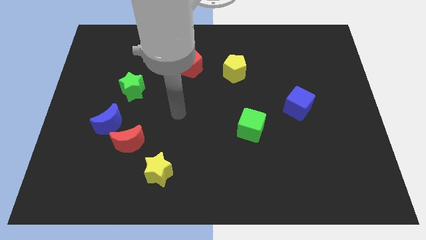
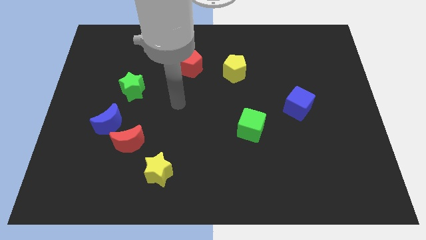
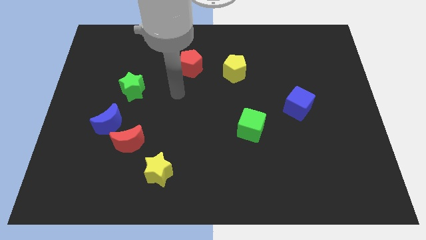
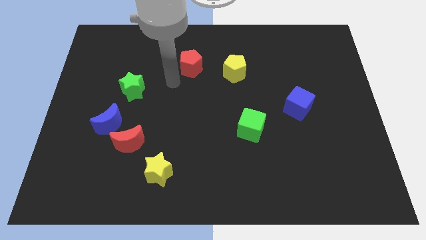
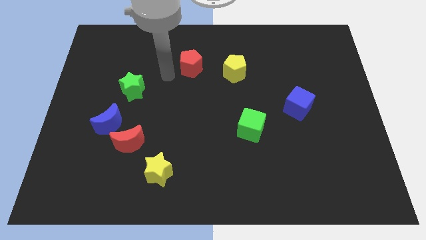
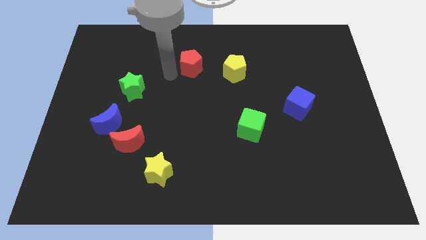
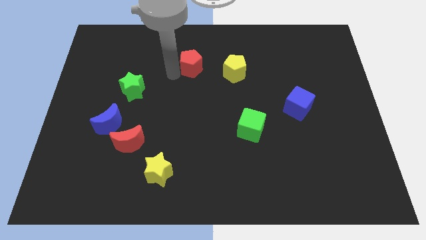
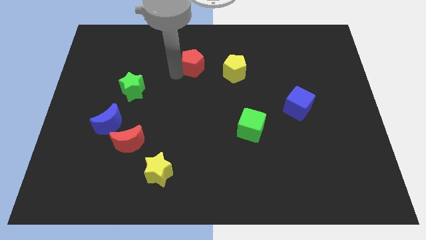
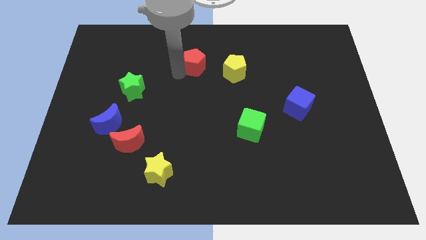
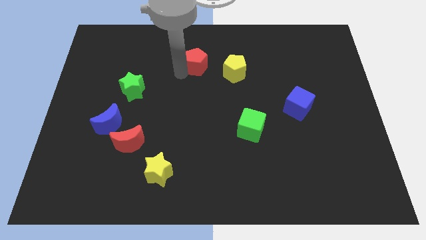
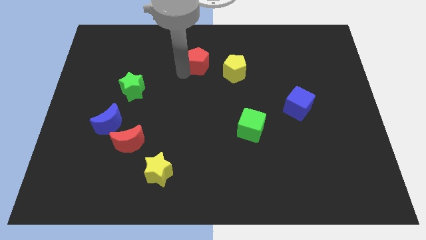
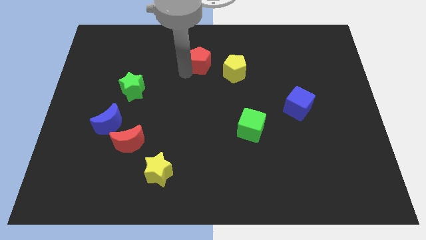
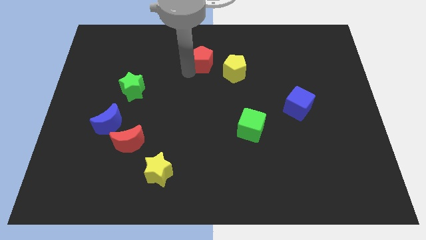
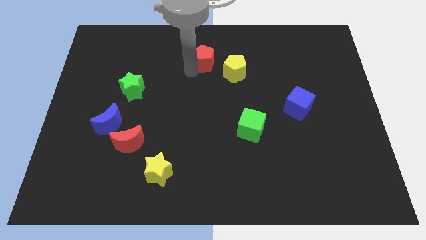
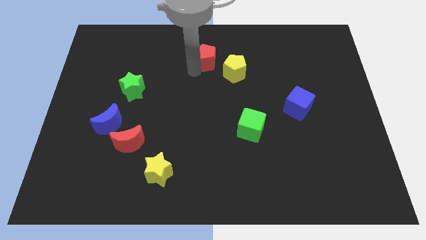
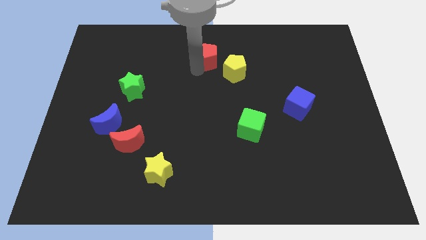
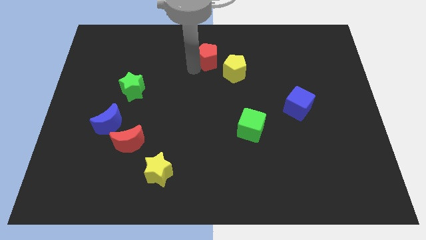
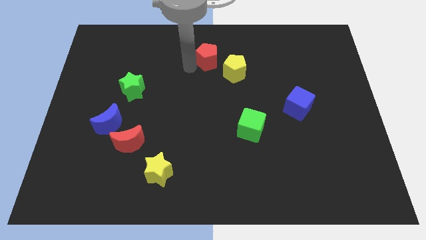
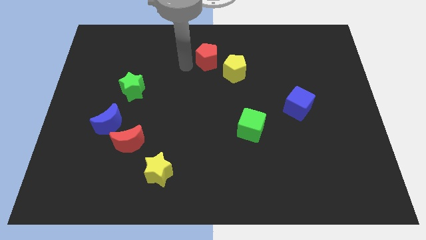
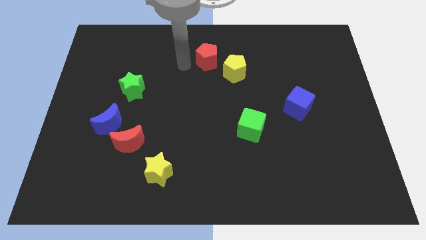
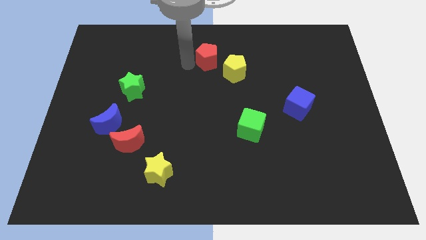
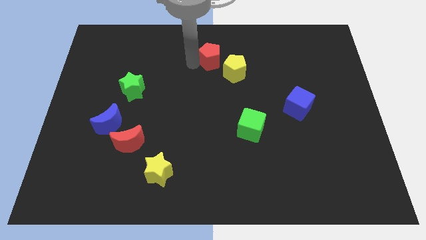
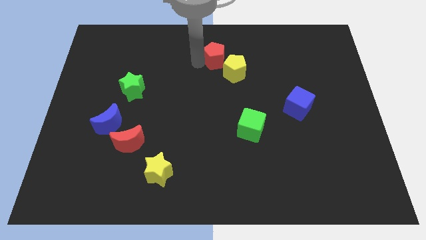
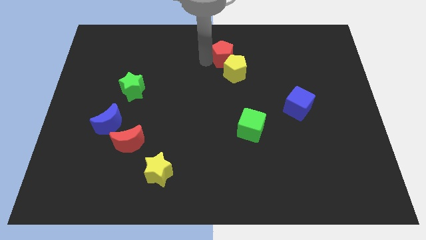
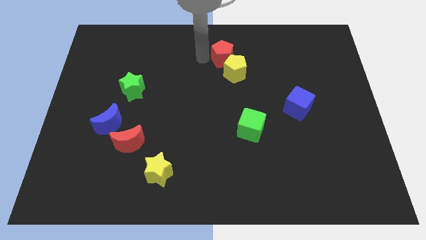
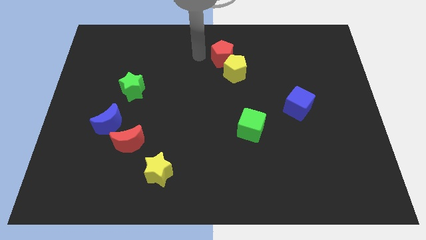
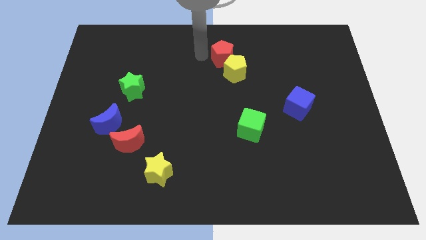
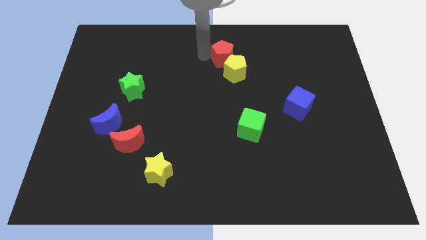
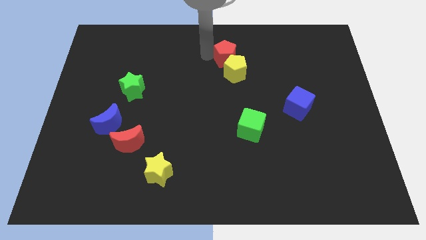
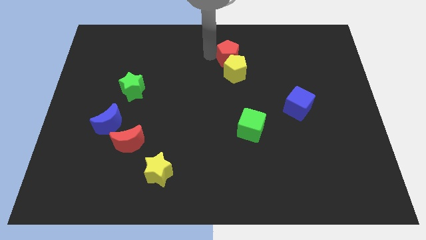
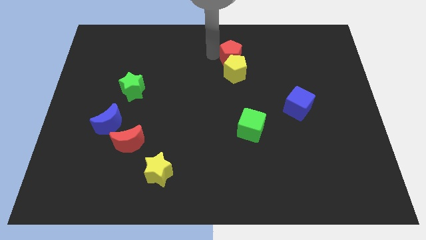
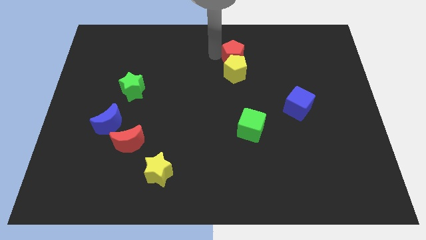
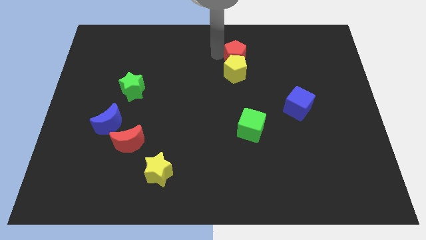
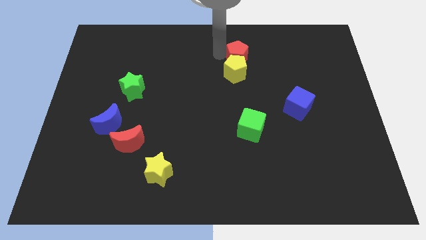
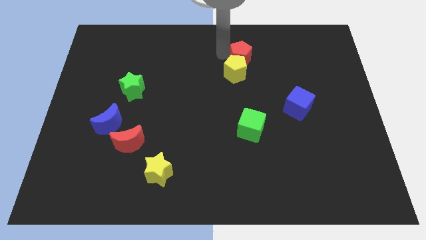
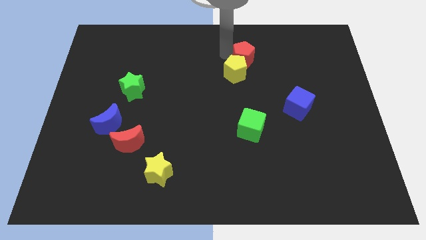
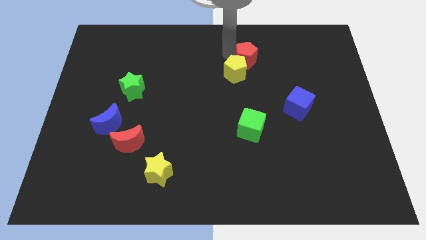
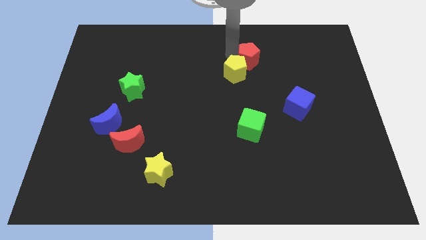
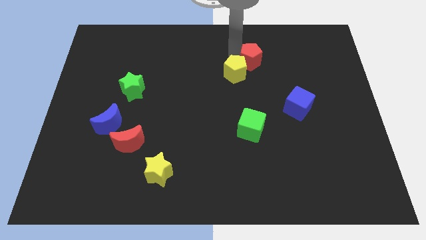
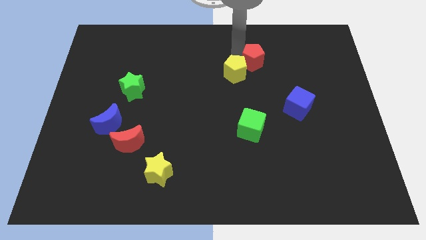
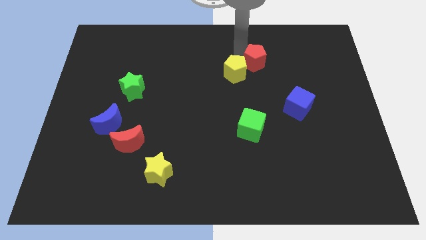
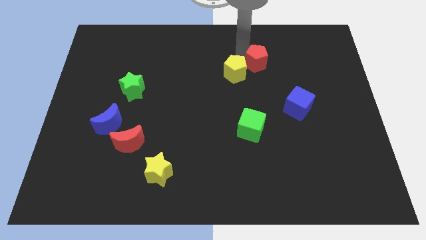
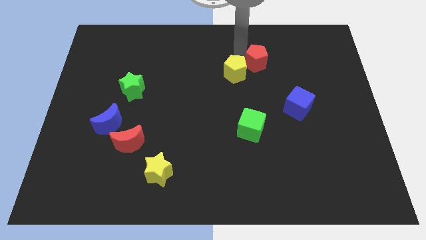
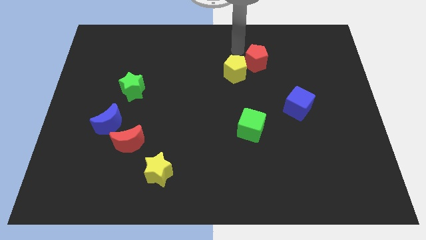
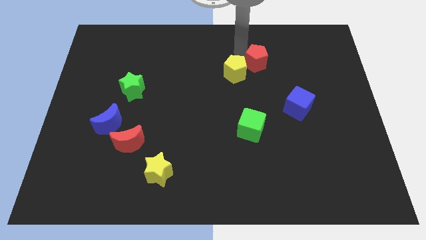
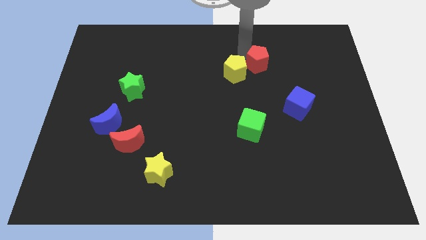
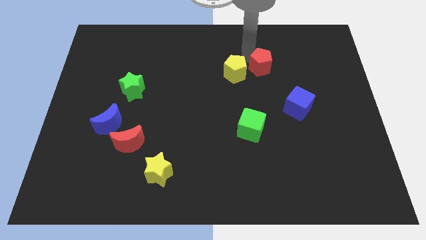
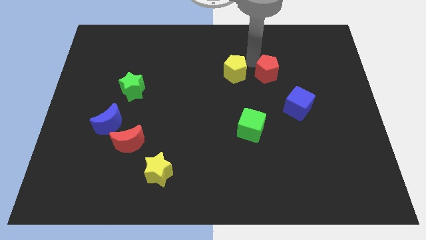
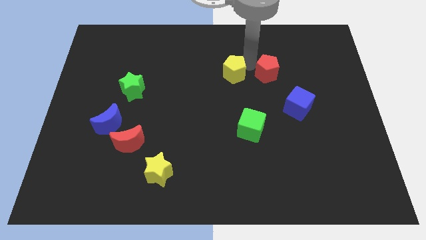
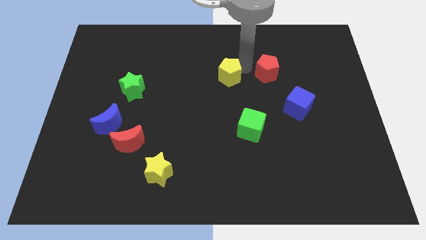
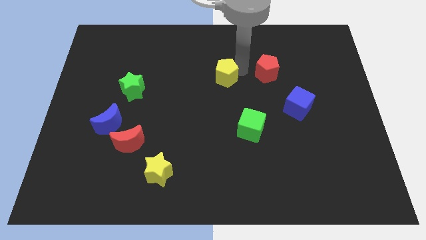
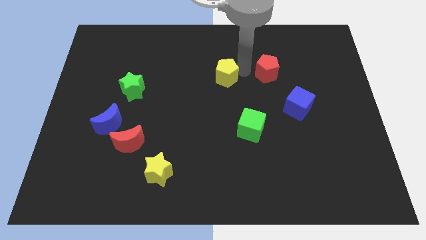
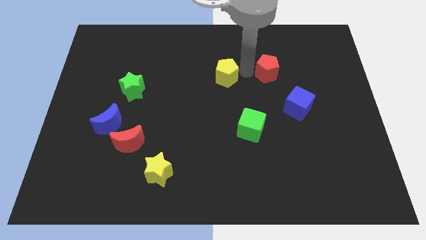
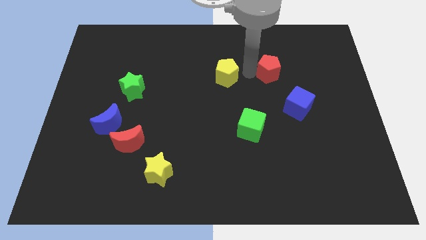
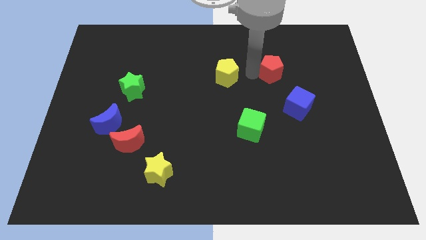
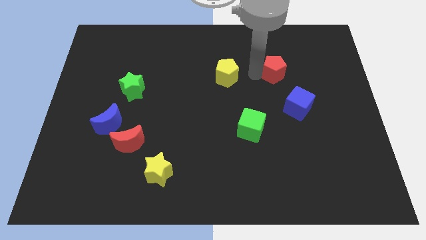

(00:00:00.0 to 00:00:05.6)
slide the red pentagon to the top of the blue cube

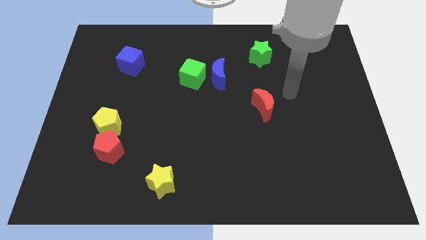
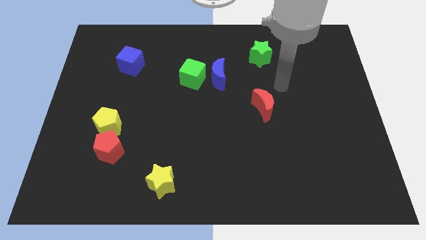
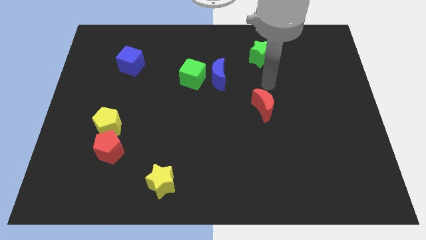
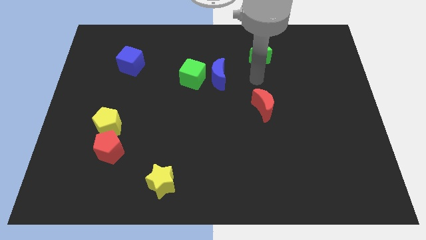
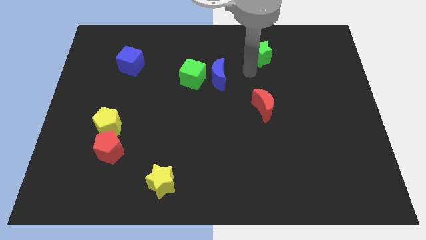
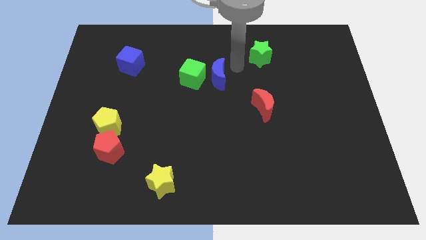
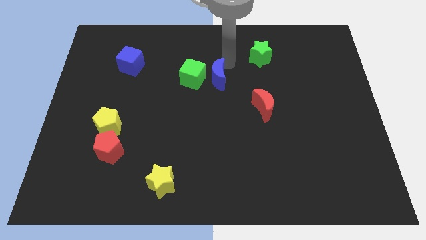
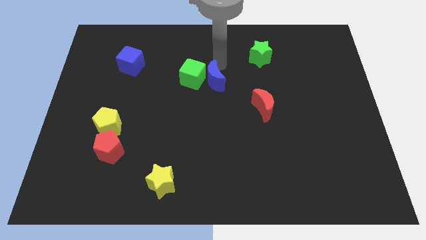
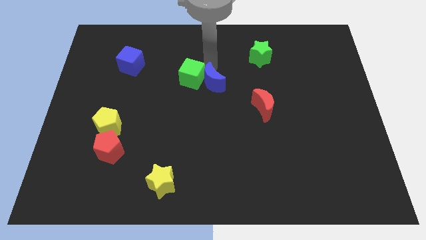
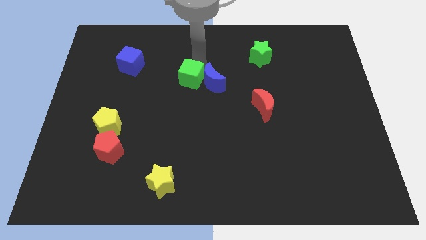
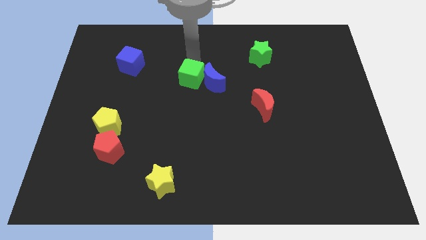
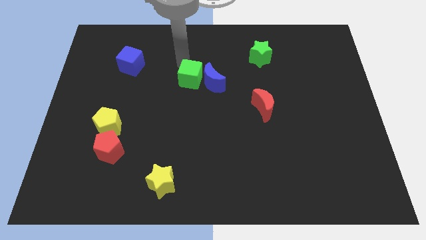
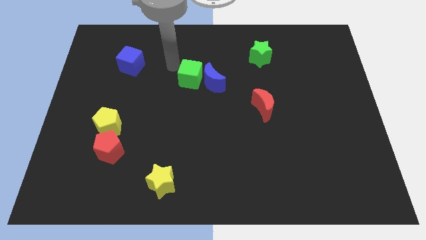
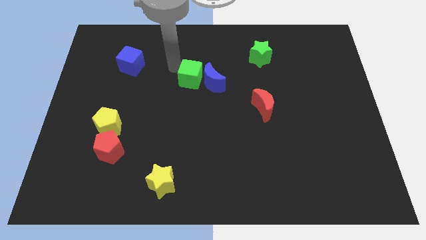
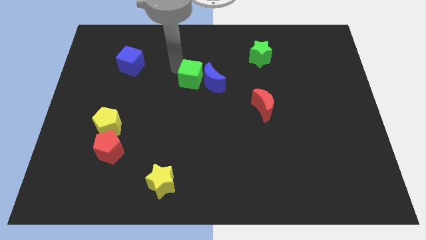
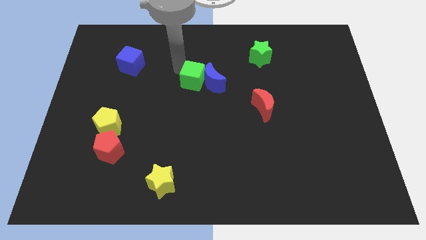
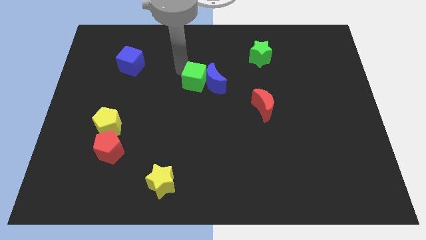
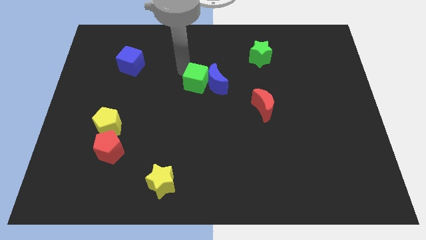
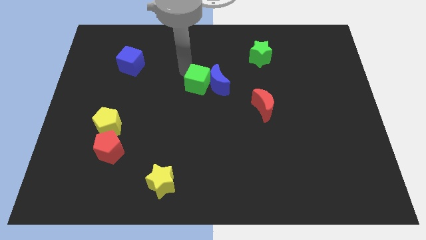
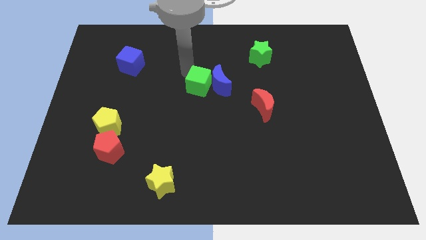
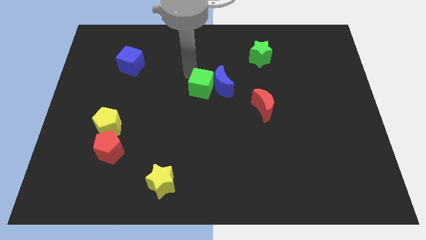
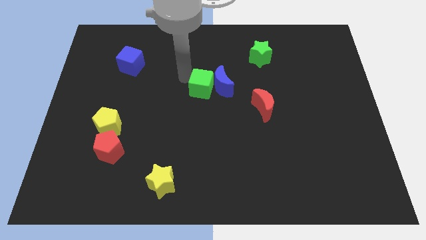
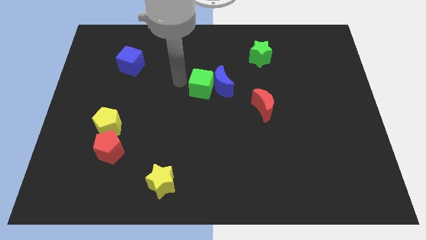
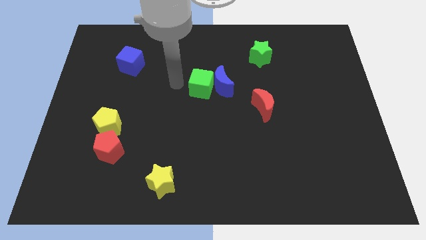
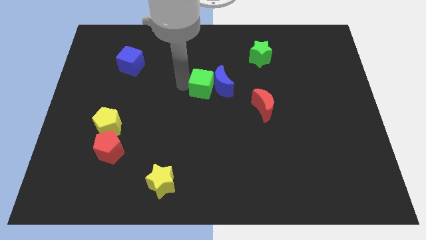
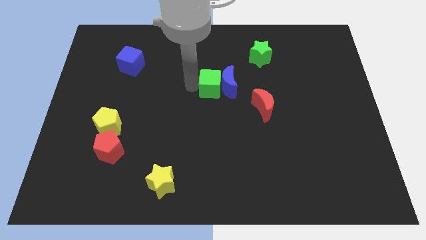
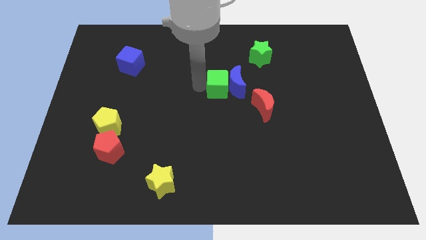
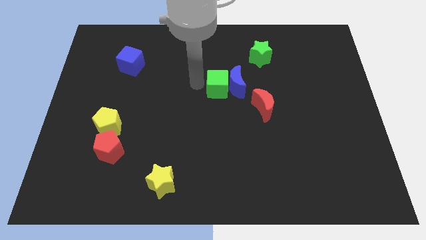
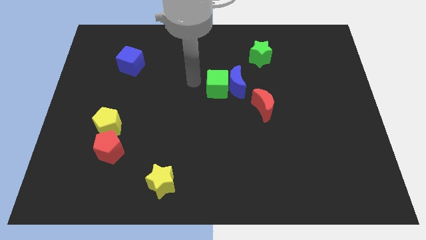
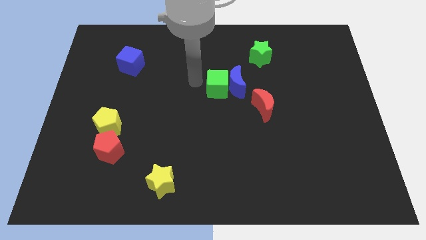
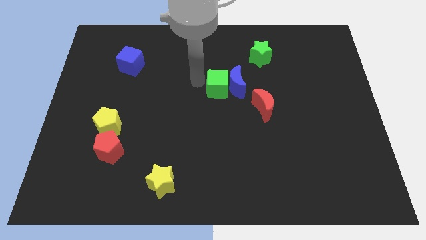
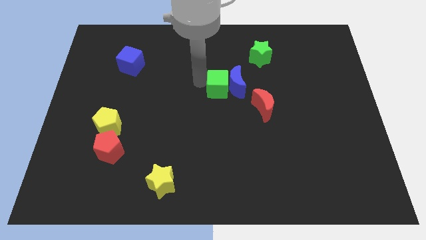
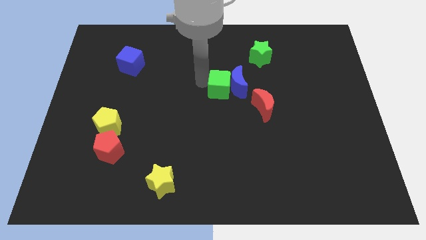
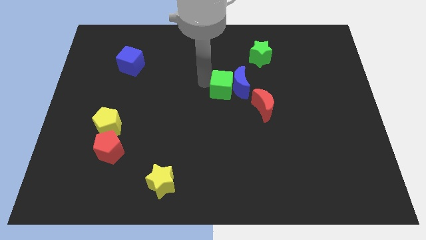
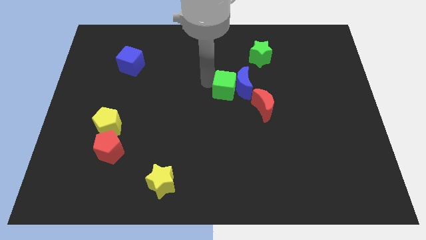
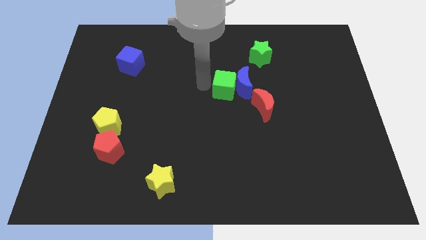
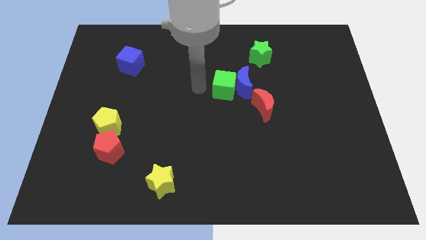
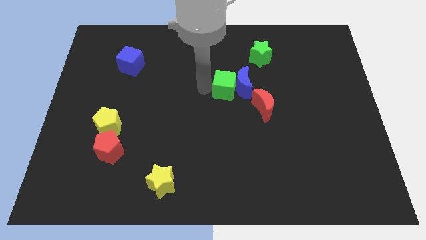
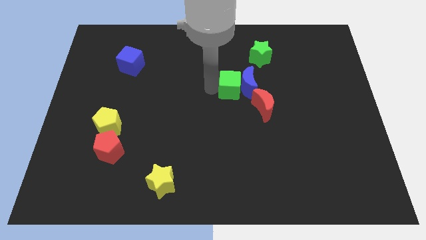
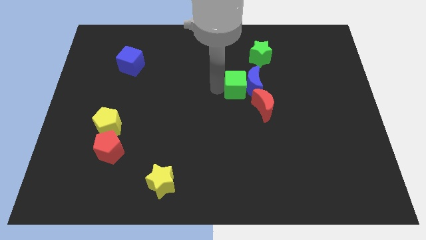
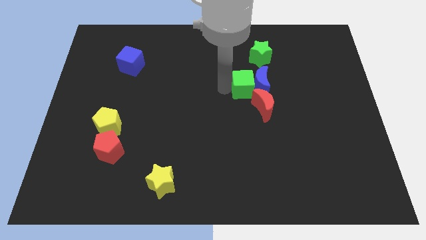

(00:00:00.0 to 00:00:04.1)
put the green cube below the green star
